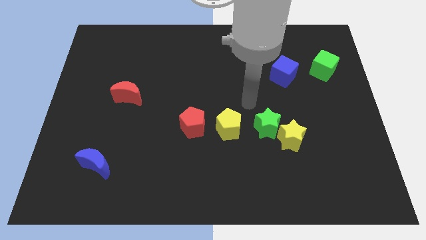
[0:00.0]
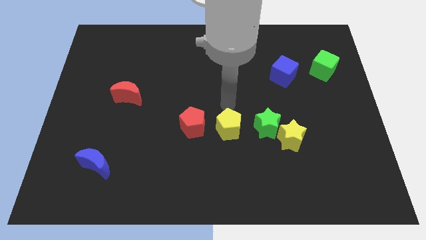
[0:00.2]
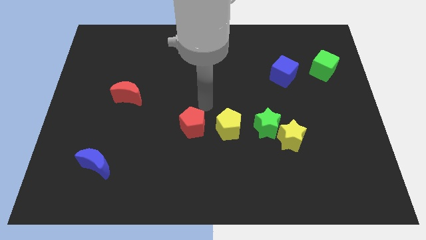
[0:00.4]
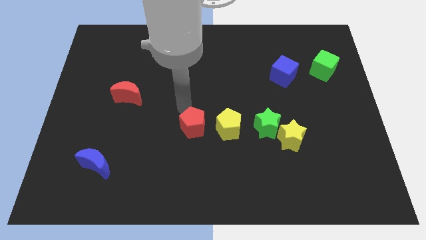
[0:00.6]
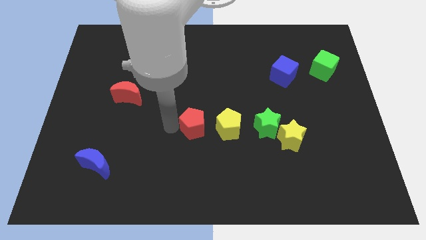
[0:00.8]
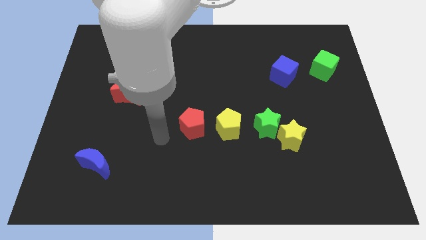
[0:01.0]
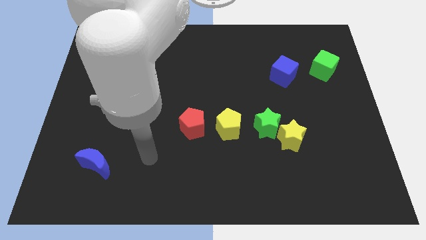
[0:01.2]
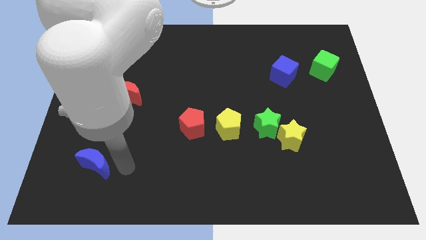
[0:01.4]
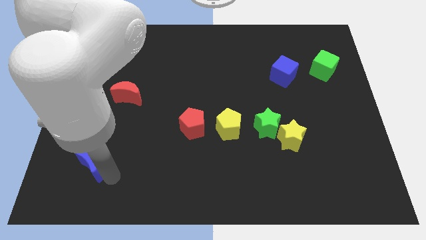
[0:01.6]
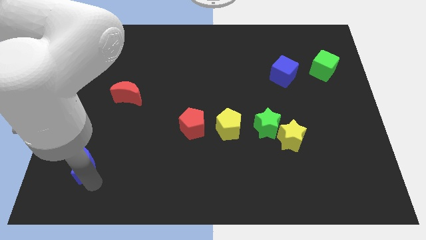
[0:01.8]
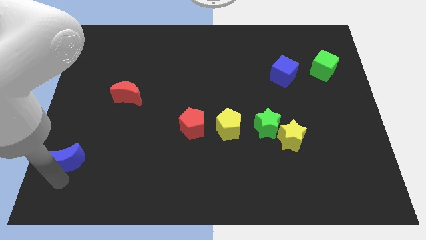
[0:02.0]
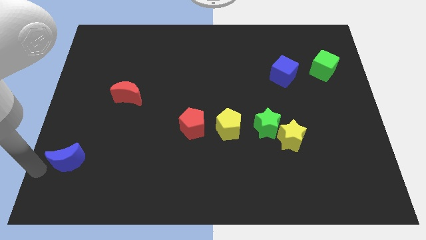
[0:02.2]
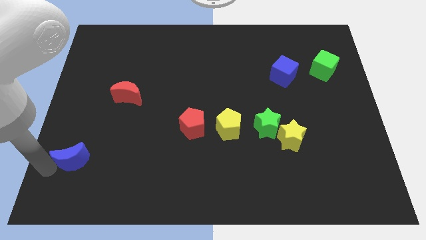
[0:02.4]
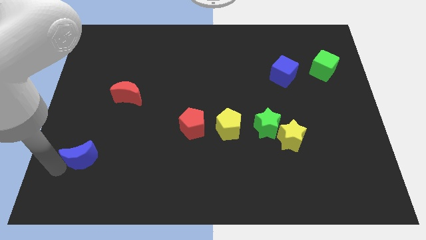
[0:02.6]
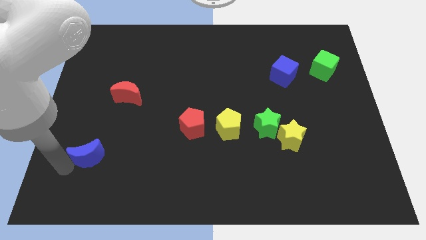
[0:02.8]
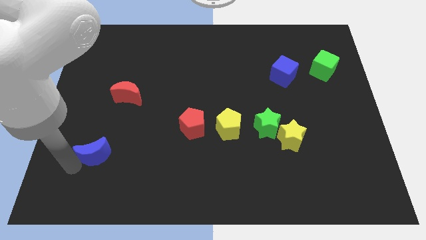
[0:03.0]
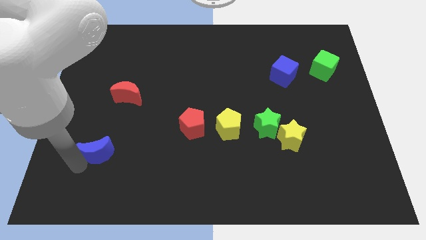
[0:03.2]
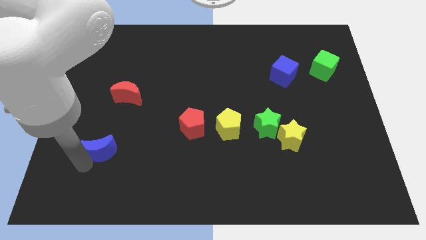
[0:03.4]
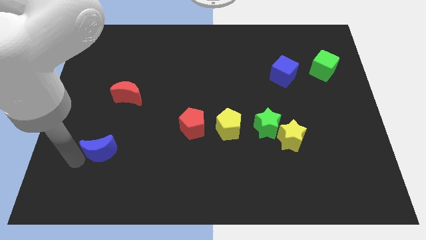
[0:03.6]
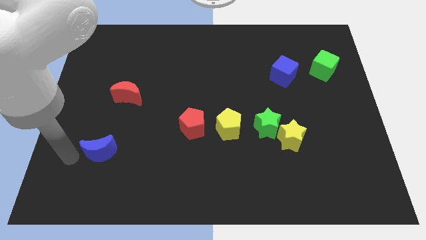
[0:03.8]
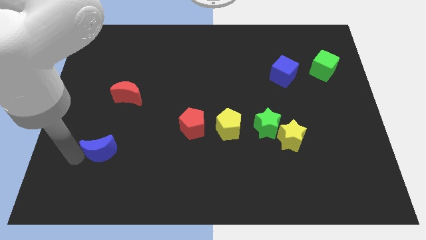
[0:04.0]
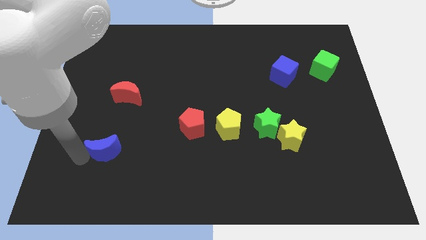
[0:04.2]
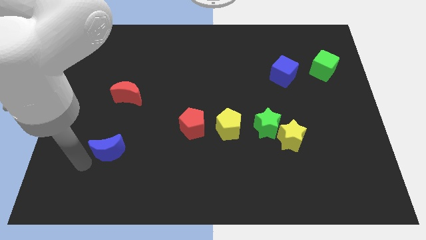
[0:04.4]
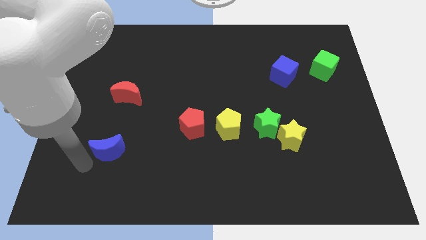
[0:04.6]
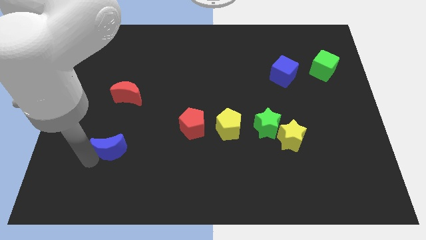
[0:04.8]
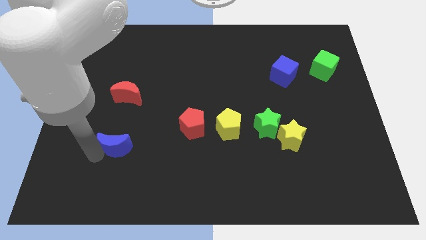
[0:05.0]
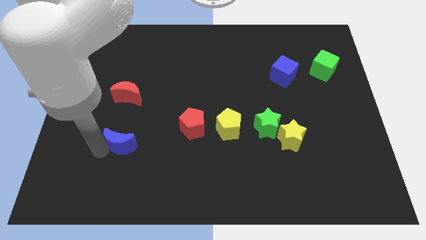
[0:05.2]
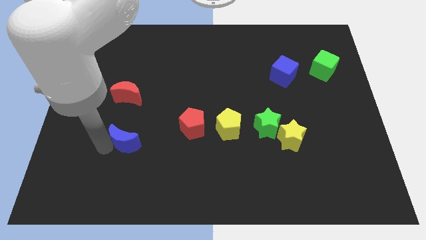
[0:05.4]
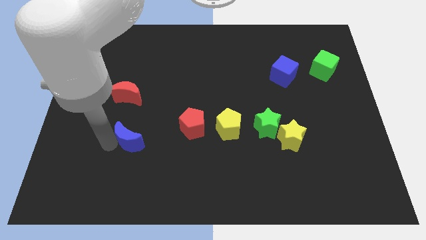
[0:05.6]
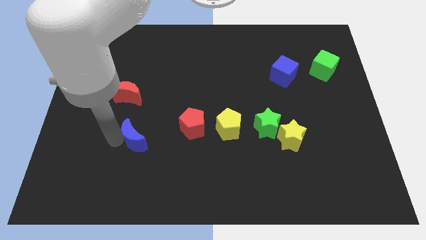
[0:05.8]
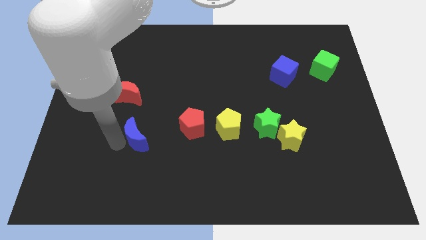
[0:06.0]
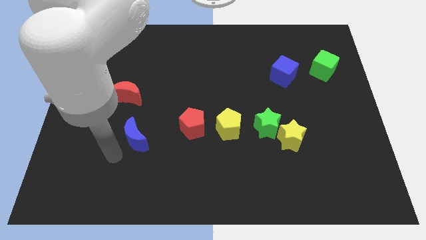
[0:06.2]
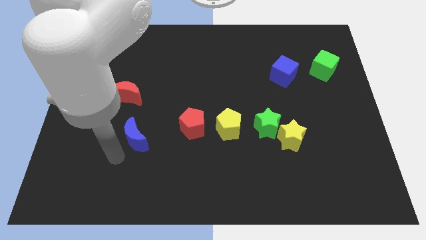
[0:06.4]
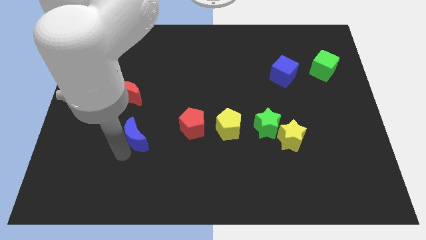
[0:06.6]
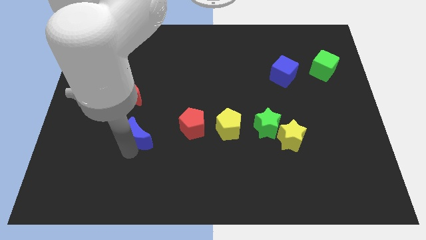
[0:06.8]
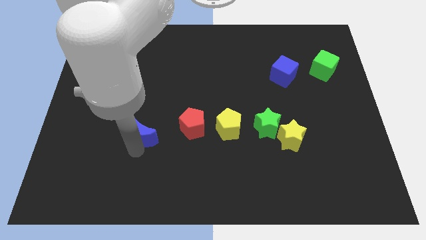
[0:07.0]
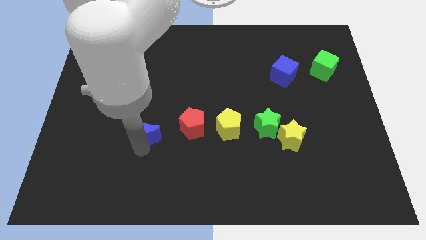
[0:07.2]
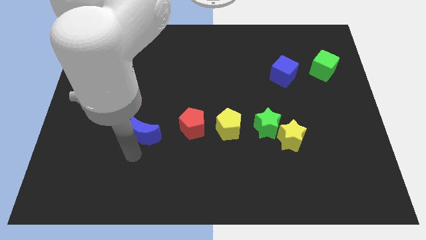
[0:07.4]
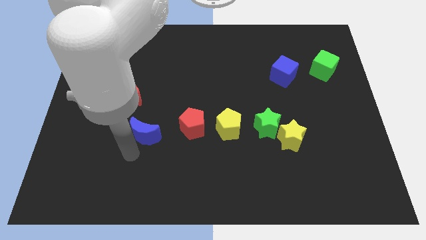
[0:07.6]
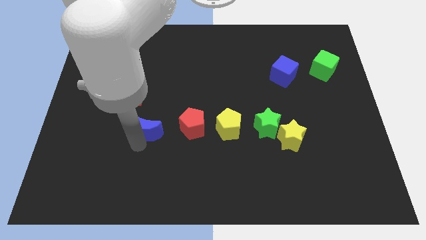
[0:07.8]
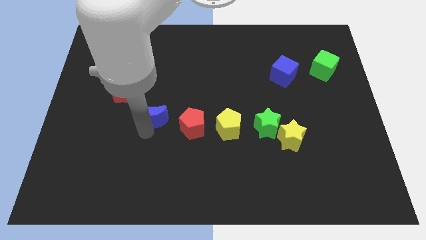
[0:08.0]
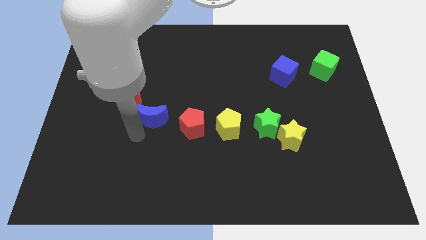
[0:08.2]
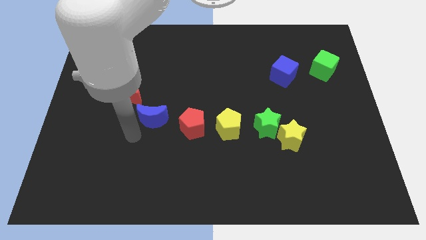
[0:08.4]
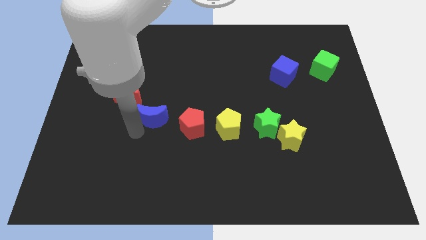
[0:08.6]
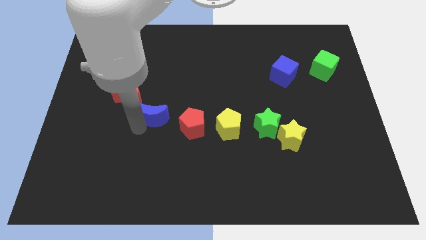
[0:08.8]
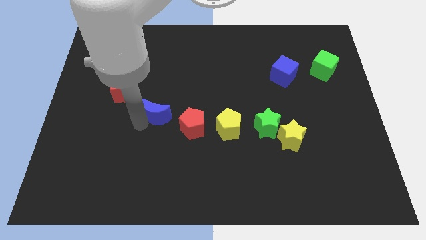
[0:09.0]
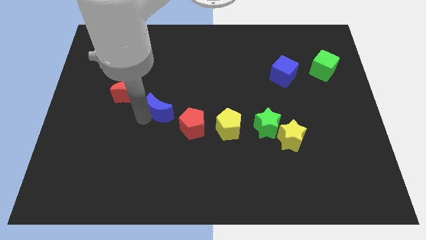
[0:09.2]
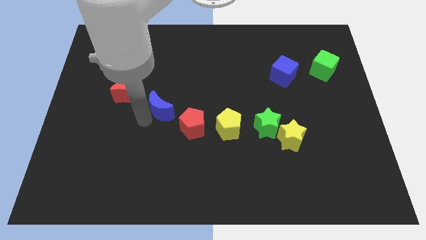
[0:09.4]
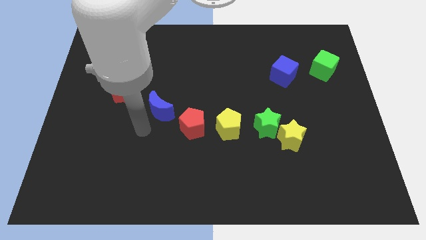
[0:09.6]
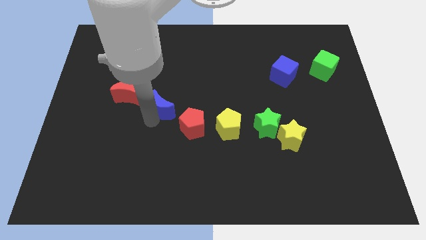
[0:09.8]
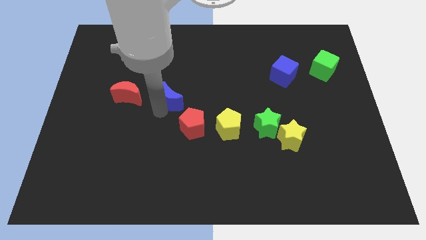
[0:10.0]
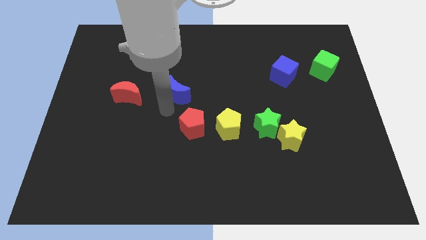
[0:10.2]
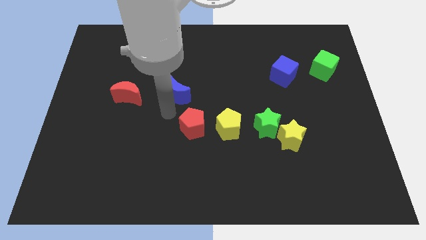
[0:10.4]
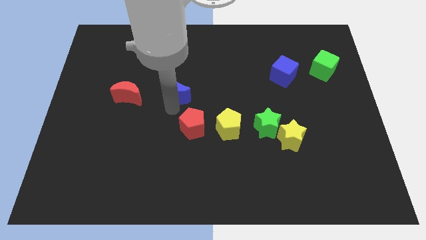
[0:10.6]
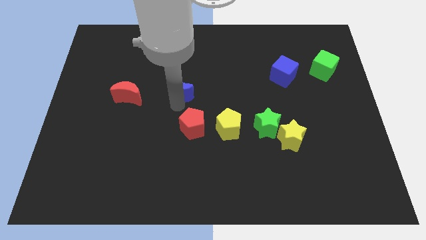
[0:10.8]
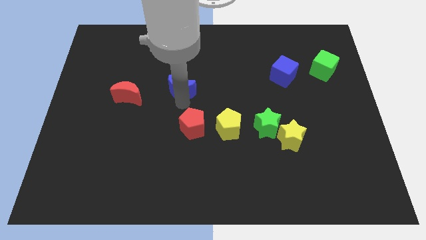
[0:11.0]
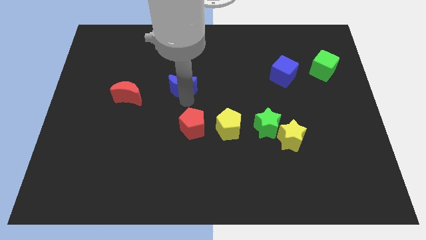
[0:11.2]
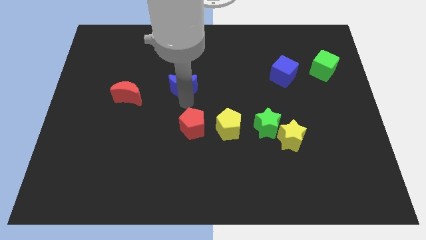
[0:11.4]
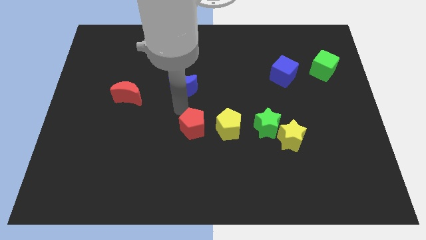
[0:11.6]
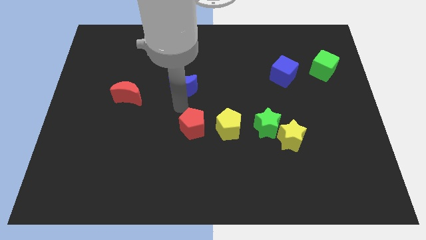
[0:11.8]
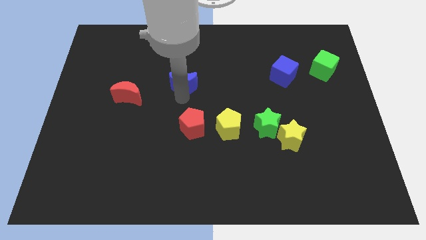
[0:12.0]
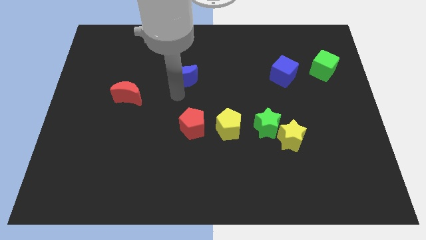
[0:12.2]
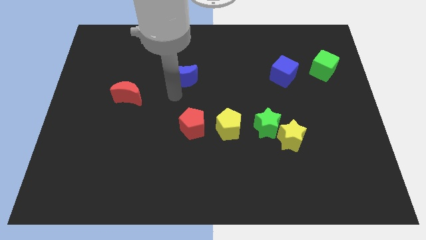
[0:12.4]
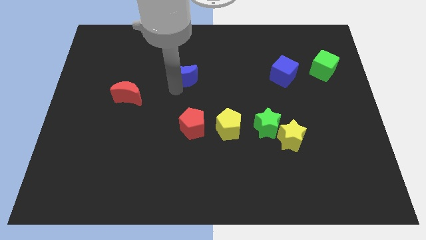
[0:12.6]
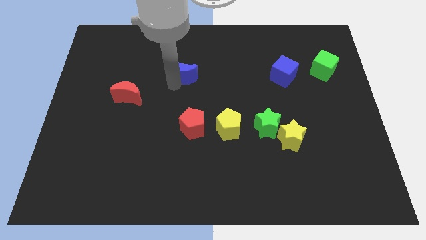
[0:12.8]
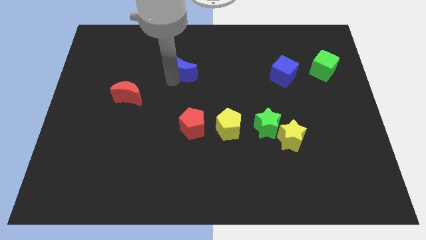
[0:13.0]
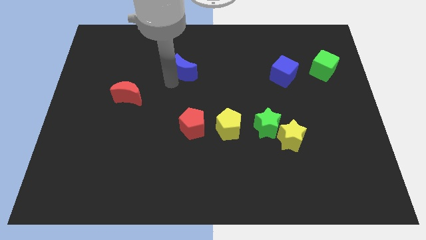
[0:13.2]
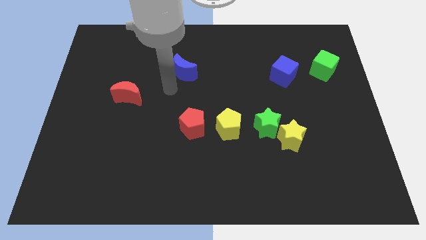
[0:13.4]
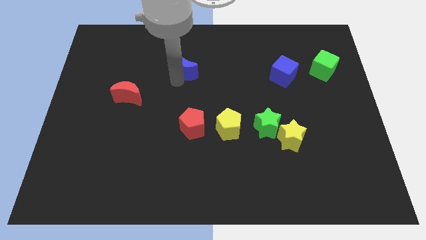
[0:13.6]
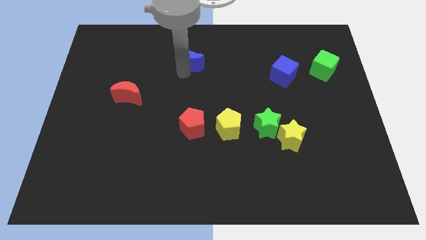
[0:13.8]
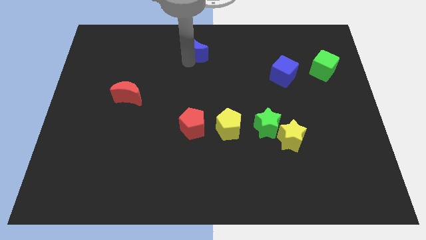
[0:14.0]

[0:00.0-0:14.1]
put the blue moon to the top
